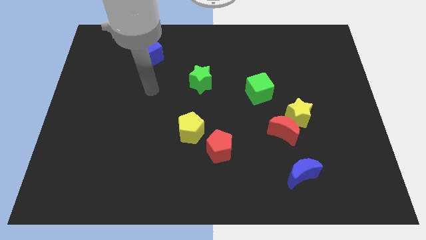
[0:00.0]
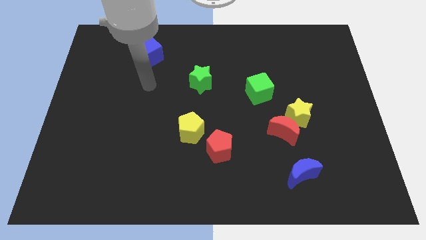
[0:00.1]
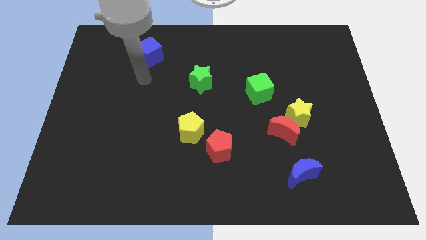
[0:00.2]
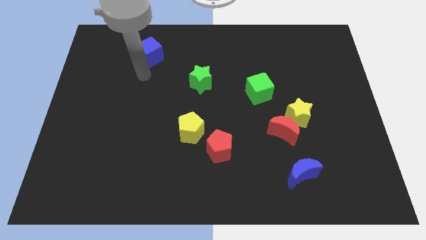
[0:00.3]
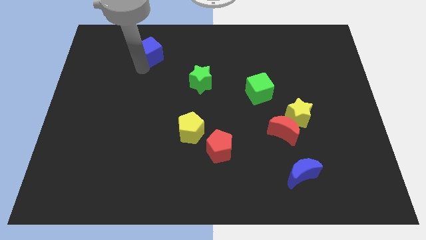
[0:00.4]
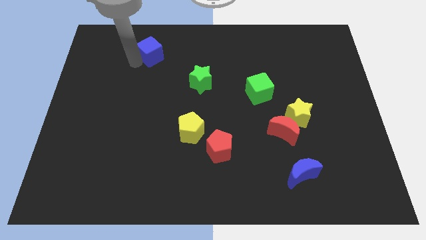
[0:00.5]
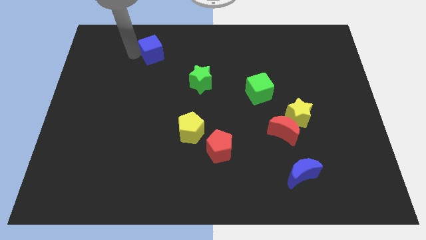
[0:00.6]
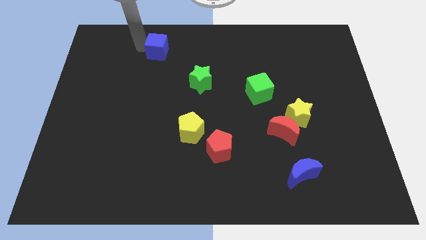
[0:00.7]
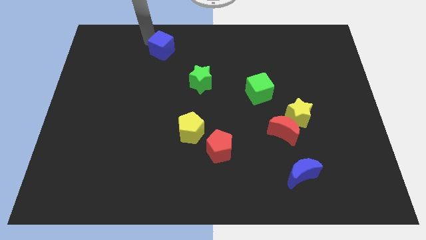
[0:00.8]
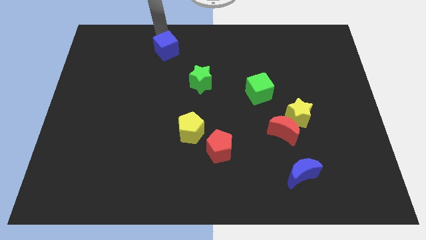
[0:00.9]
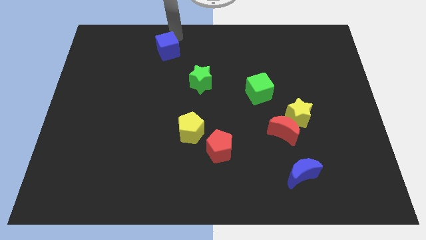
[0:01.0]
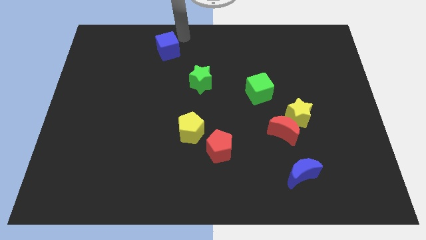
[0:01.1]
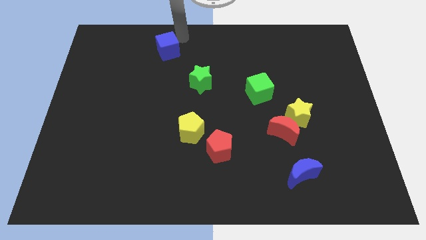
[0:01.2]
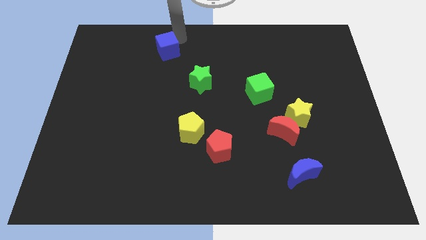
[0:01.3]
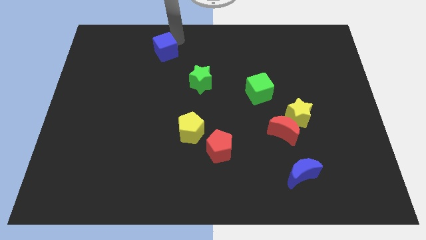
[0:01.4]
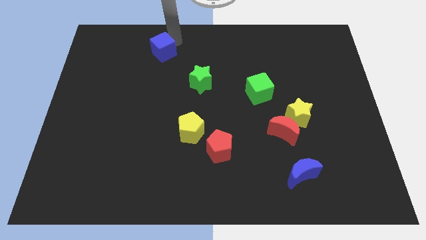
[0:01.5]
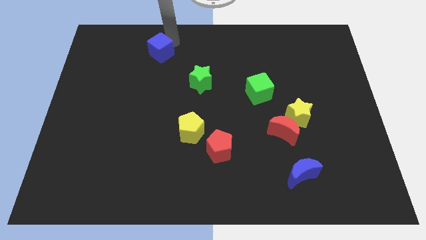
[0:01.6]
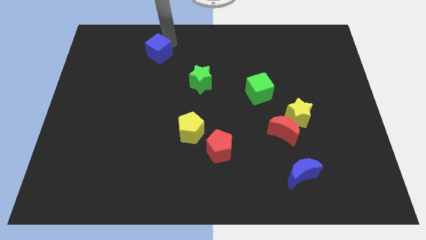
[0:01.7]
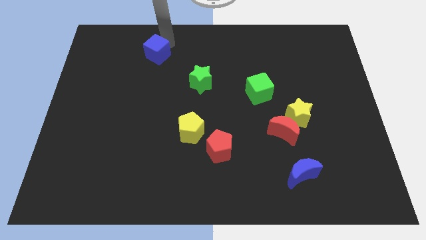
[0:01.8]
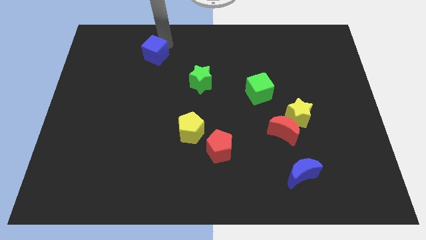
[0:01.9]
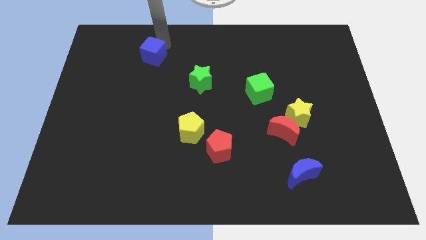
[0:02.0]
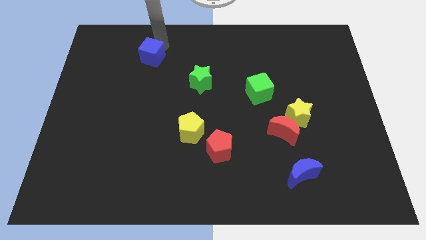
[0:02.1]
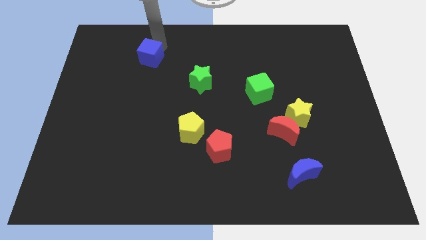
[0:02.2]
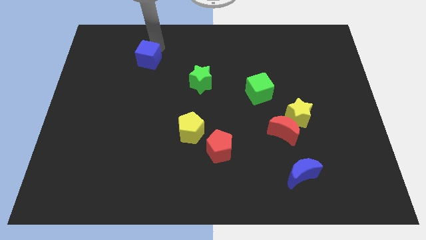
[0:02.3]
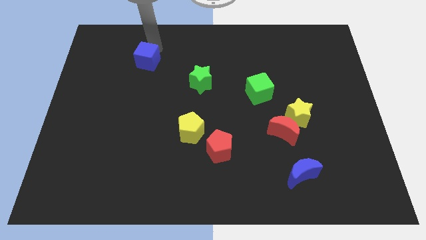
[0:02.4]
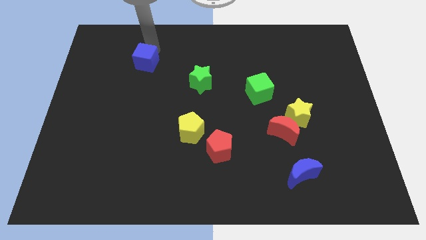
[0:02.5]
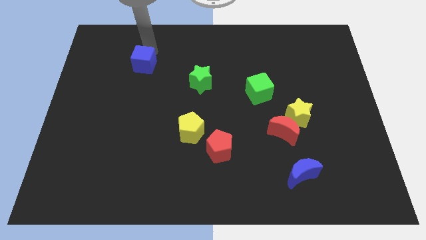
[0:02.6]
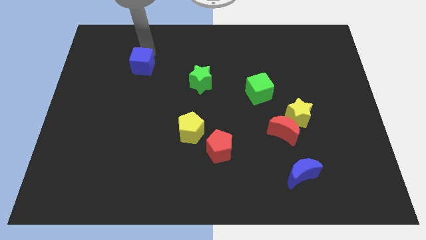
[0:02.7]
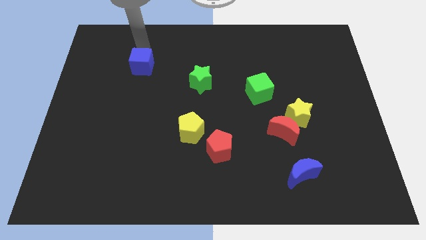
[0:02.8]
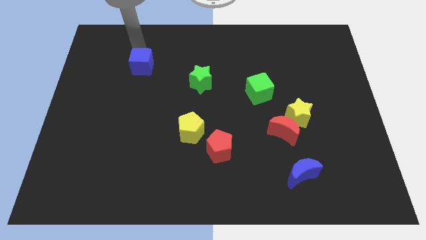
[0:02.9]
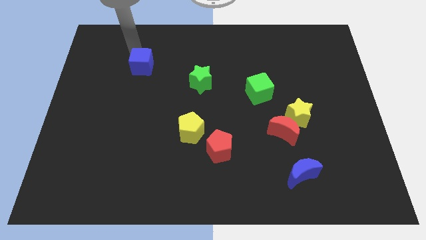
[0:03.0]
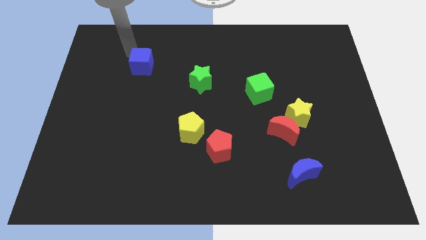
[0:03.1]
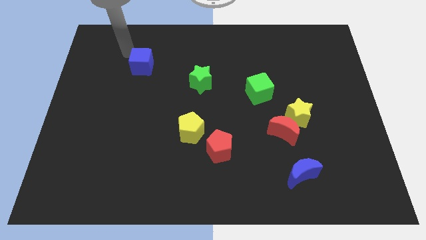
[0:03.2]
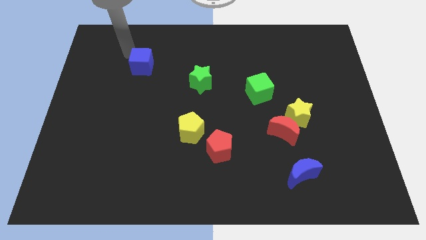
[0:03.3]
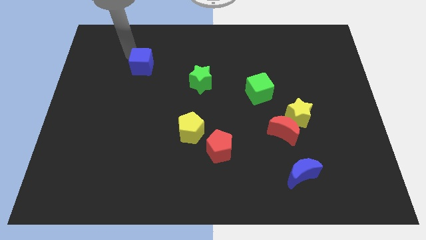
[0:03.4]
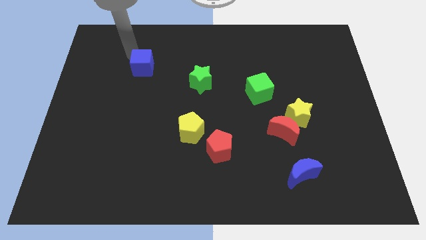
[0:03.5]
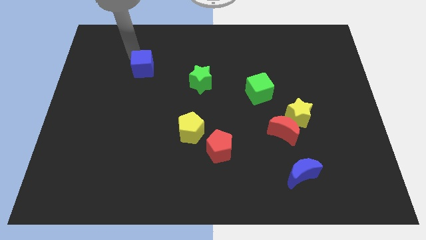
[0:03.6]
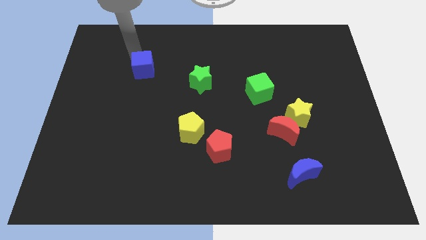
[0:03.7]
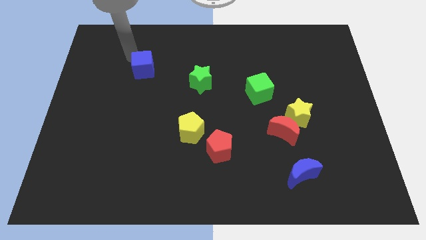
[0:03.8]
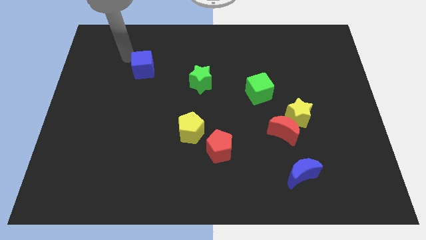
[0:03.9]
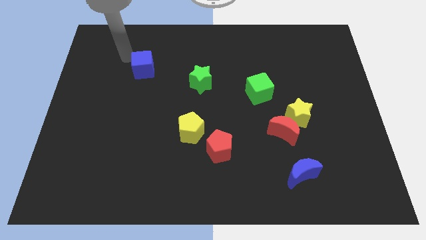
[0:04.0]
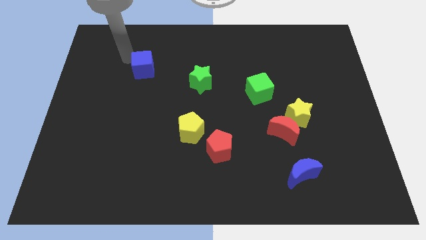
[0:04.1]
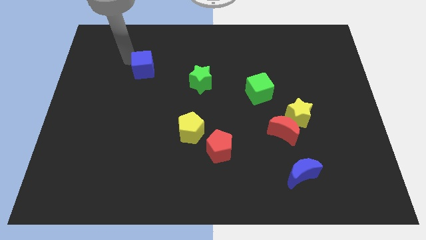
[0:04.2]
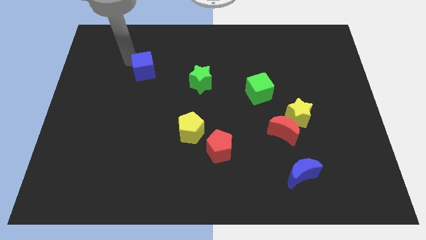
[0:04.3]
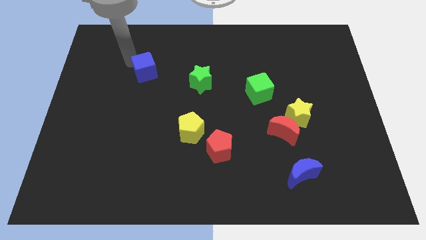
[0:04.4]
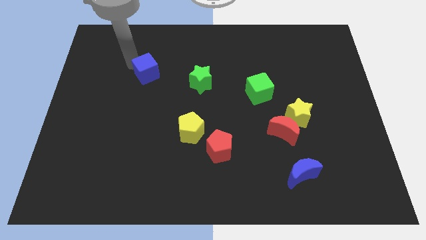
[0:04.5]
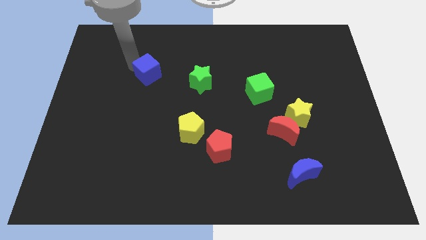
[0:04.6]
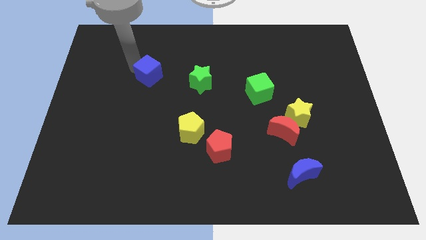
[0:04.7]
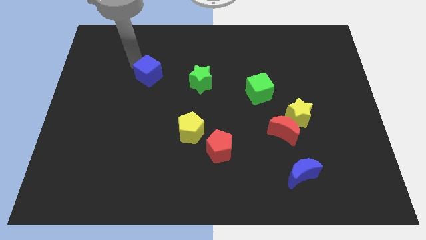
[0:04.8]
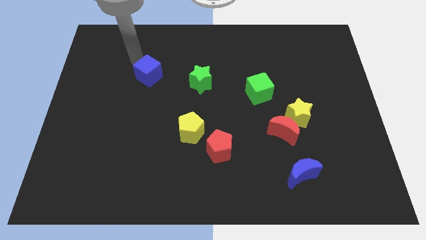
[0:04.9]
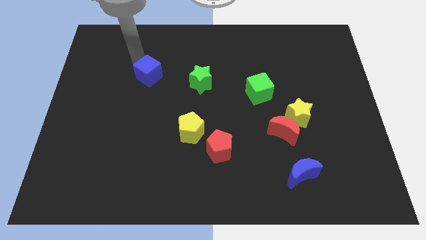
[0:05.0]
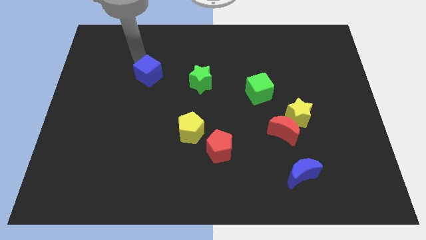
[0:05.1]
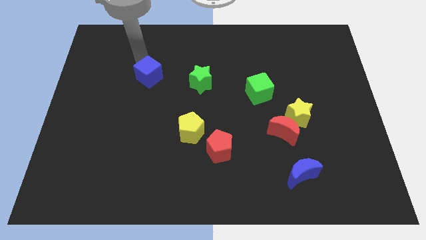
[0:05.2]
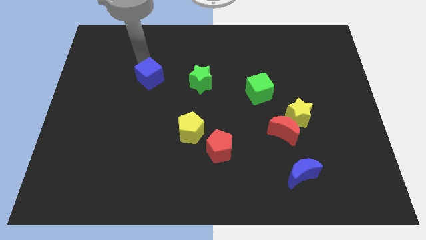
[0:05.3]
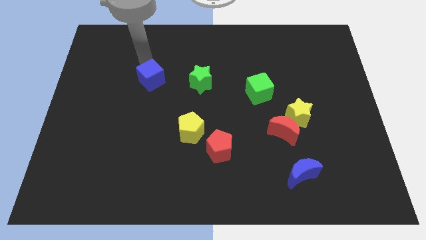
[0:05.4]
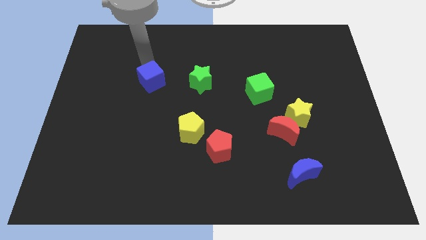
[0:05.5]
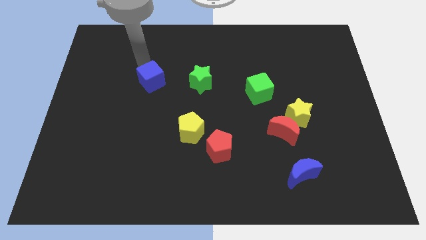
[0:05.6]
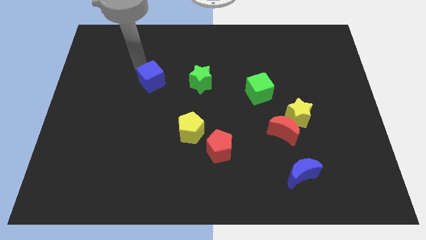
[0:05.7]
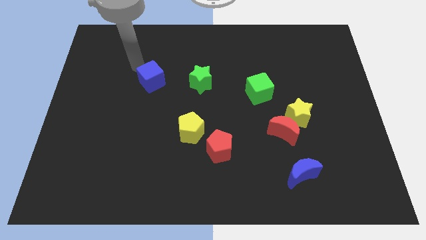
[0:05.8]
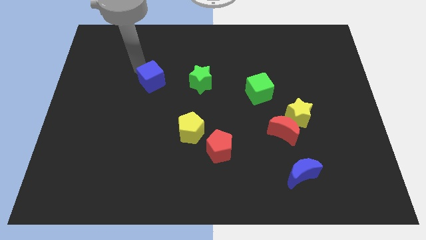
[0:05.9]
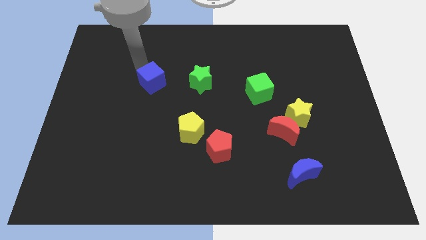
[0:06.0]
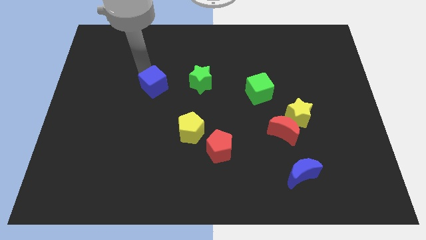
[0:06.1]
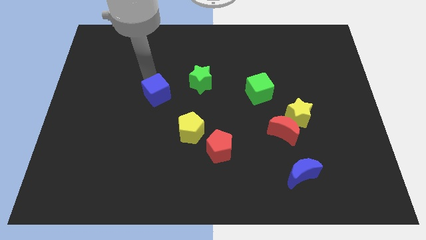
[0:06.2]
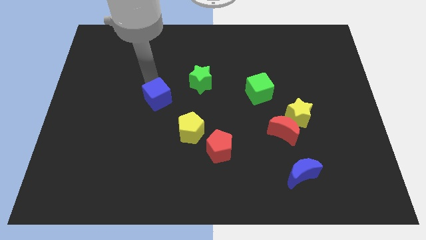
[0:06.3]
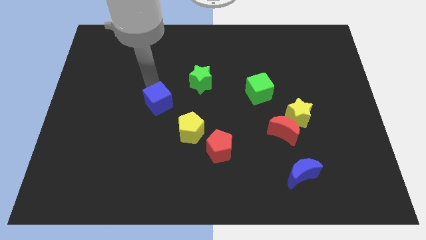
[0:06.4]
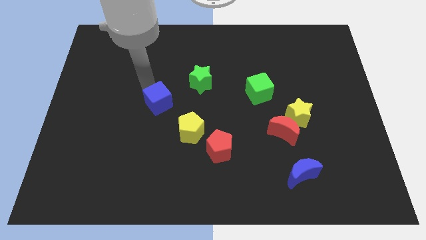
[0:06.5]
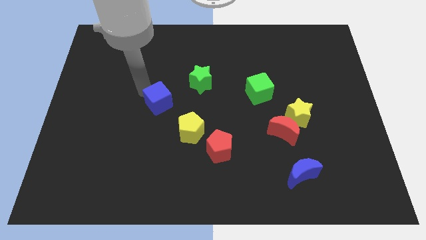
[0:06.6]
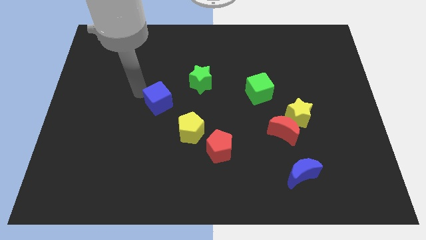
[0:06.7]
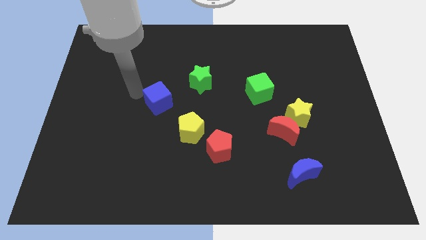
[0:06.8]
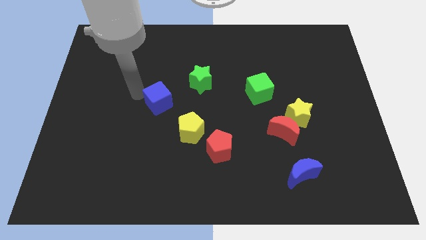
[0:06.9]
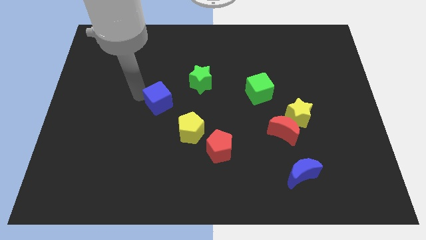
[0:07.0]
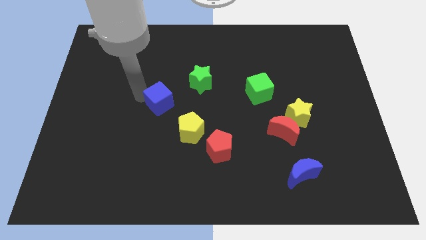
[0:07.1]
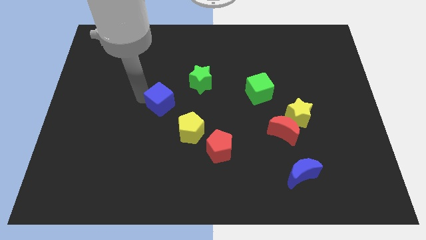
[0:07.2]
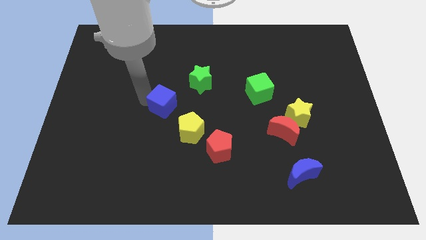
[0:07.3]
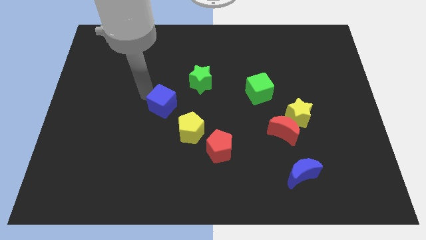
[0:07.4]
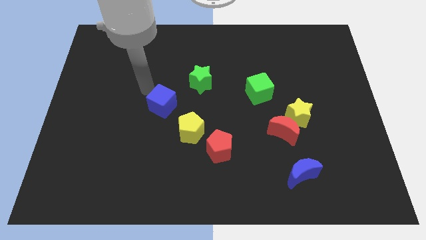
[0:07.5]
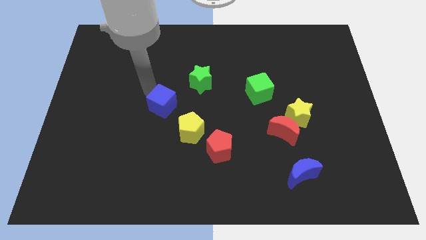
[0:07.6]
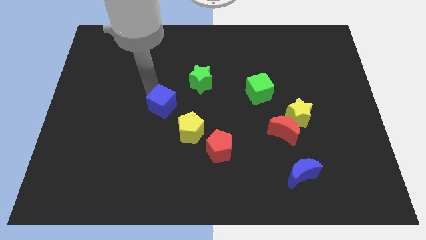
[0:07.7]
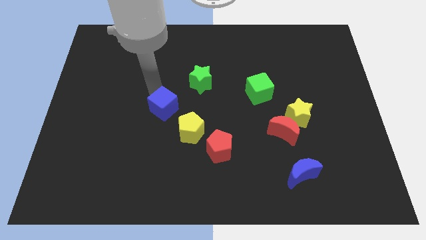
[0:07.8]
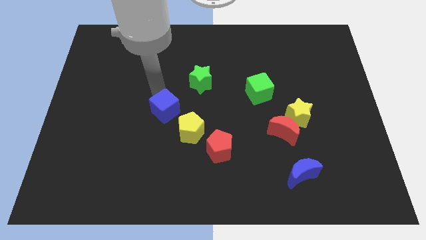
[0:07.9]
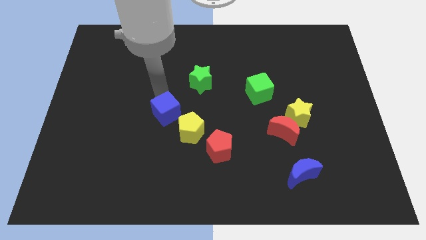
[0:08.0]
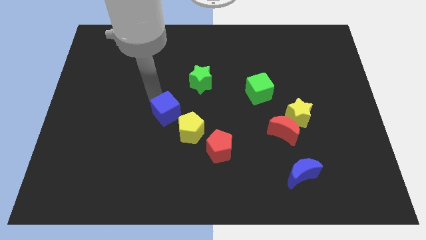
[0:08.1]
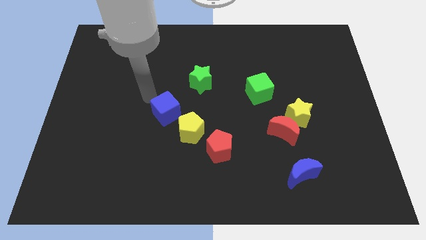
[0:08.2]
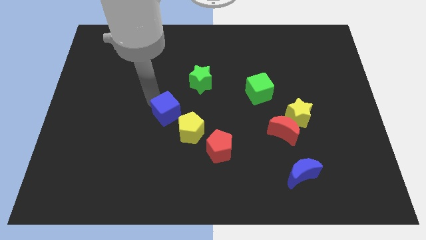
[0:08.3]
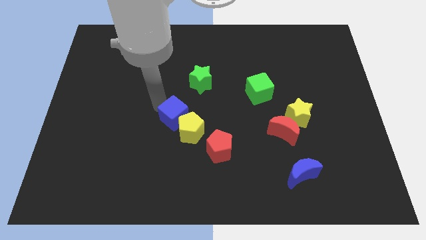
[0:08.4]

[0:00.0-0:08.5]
slide the blue cube next to the yellow pentagon
